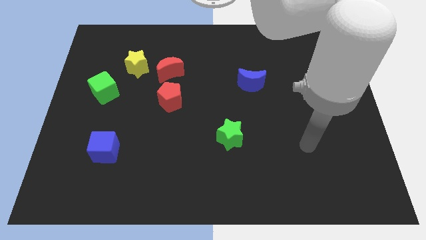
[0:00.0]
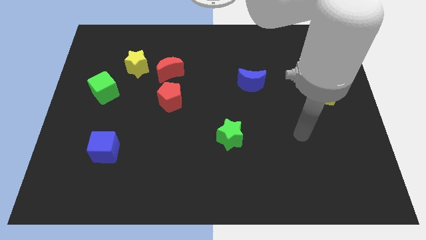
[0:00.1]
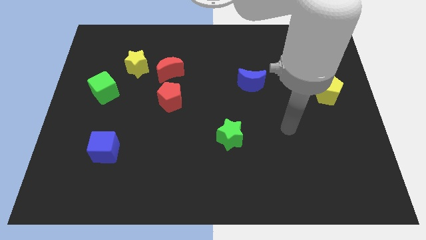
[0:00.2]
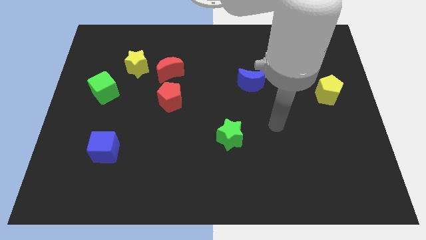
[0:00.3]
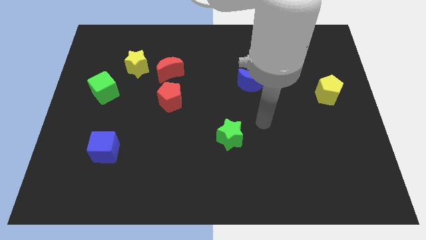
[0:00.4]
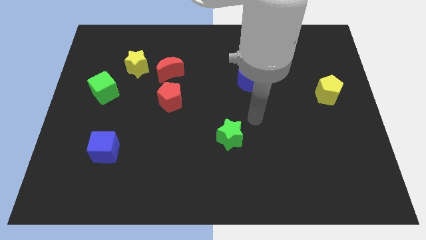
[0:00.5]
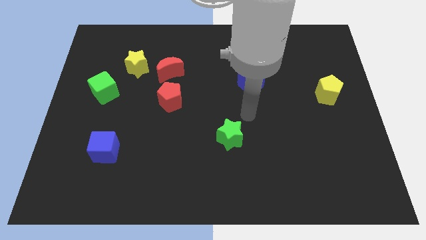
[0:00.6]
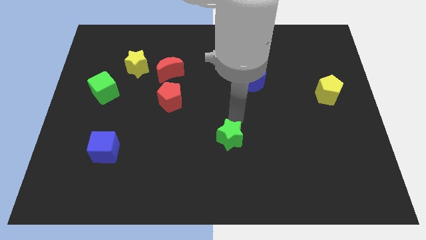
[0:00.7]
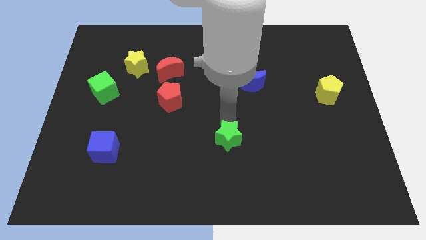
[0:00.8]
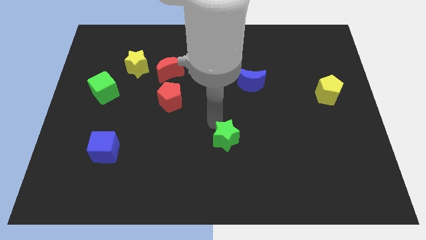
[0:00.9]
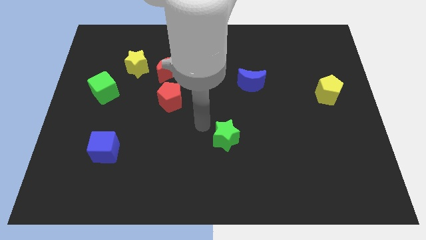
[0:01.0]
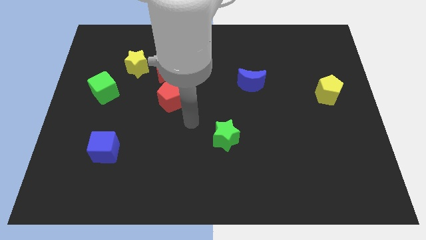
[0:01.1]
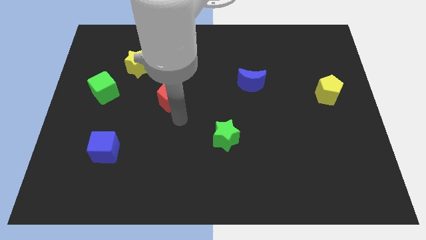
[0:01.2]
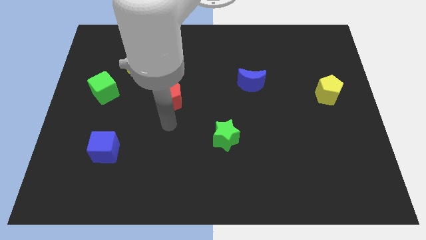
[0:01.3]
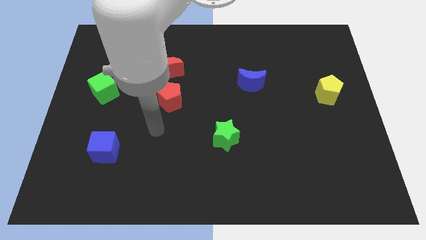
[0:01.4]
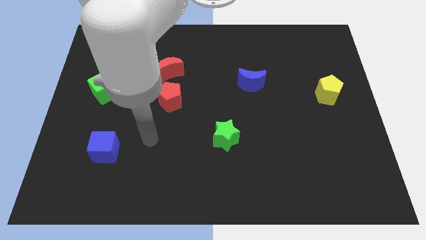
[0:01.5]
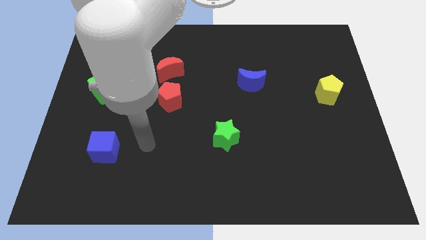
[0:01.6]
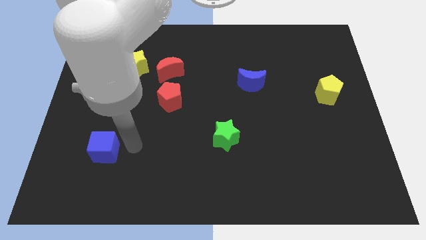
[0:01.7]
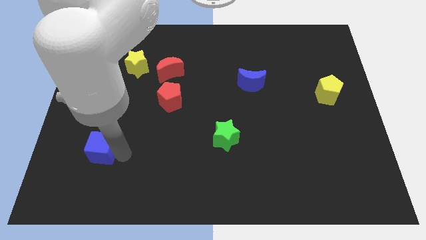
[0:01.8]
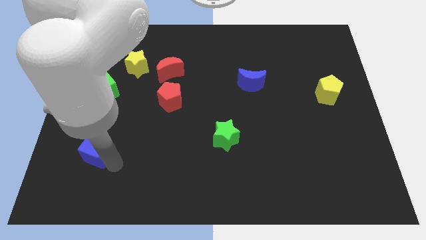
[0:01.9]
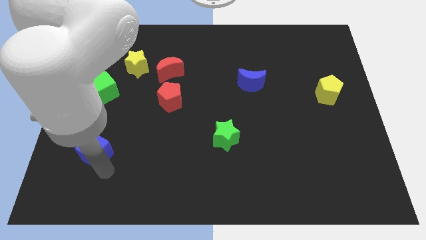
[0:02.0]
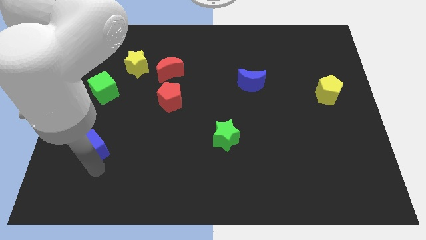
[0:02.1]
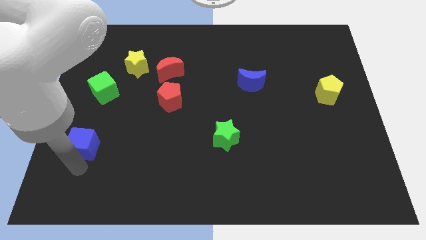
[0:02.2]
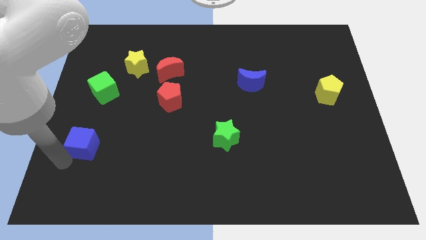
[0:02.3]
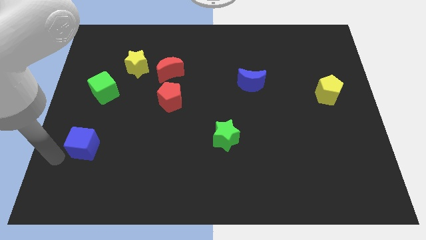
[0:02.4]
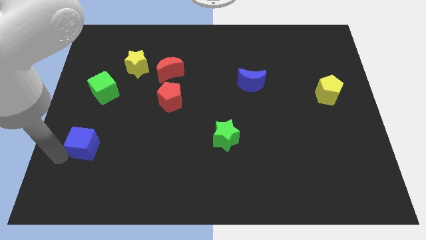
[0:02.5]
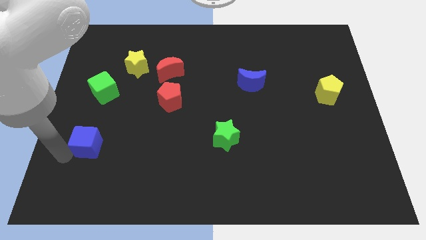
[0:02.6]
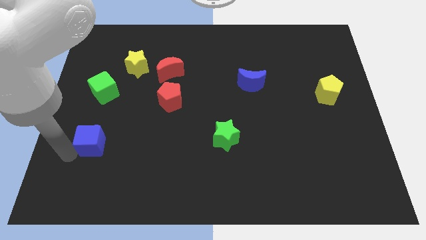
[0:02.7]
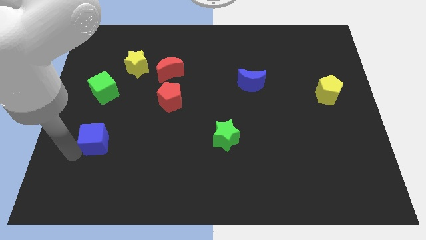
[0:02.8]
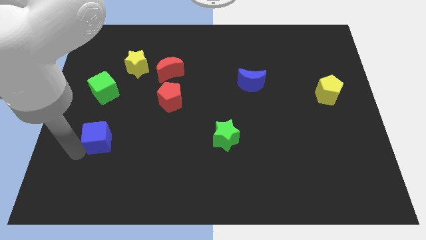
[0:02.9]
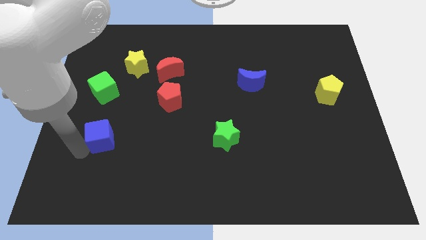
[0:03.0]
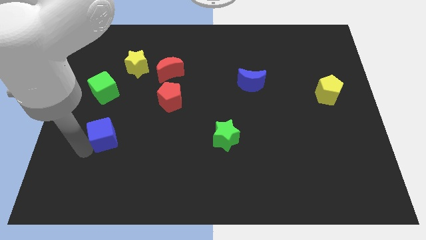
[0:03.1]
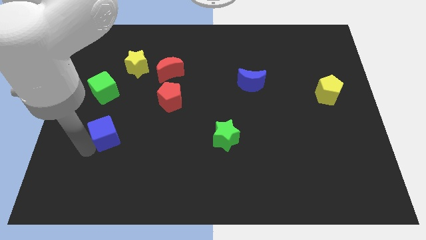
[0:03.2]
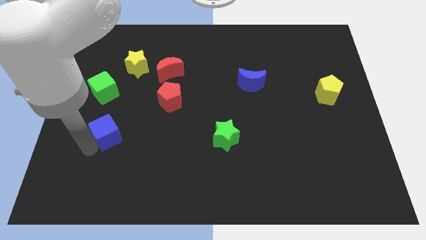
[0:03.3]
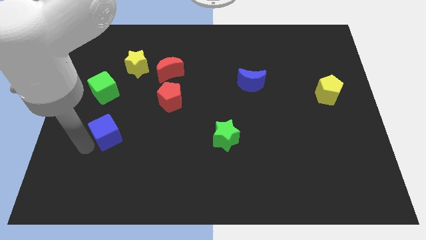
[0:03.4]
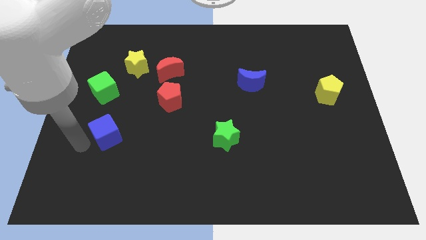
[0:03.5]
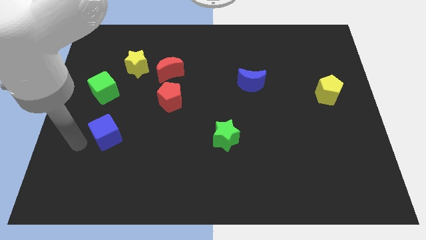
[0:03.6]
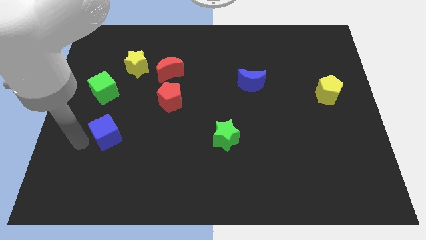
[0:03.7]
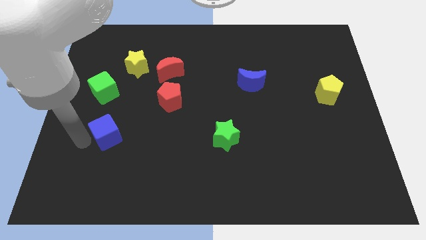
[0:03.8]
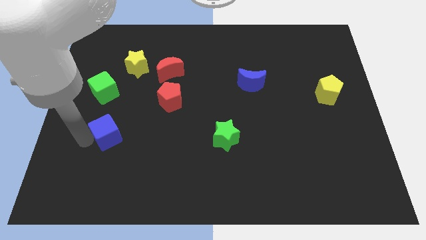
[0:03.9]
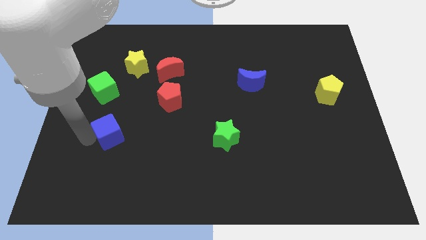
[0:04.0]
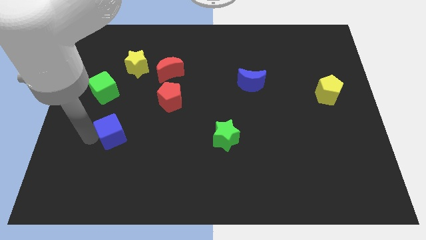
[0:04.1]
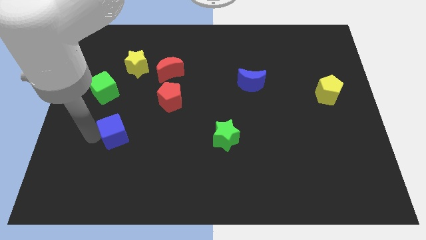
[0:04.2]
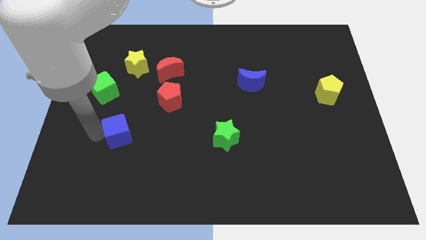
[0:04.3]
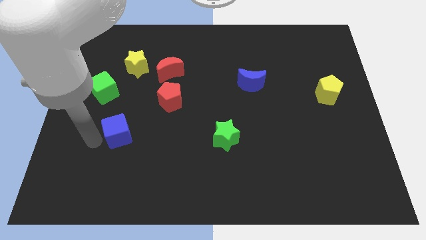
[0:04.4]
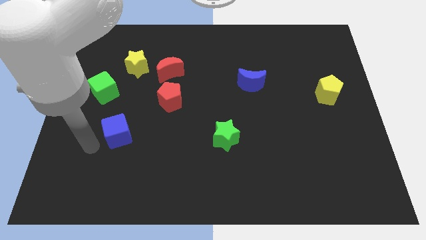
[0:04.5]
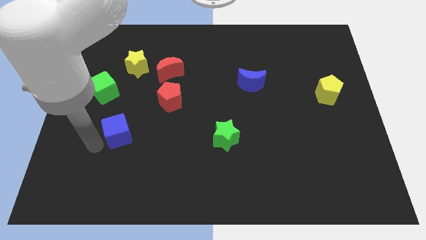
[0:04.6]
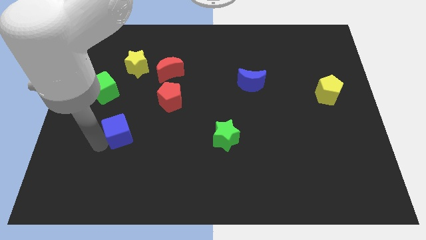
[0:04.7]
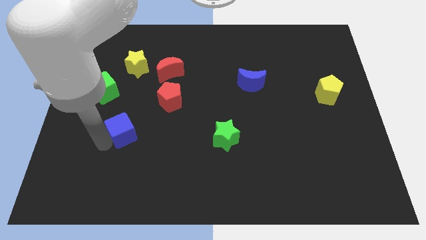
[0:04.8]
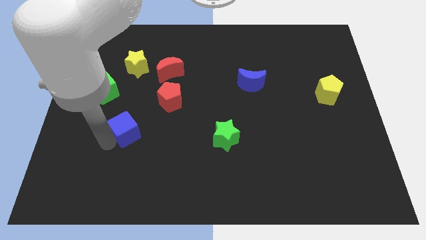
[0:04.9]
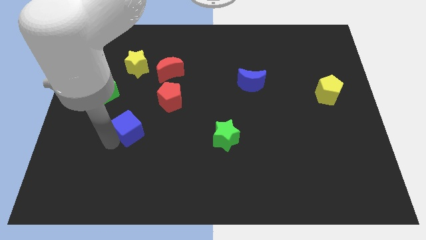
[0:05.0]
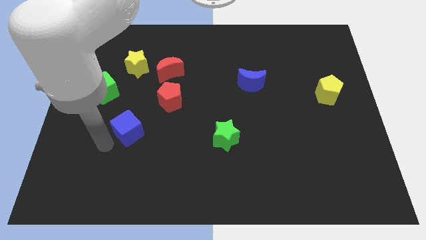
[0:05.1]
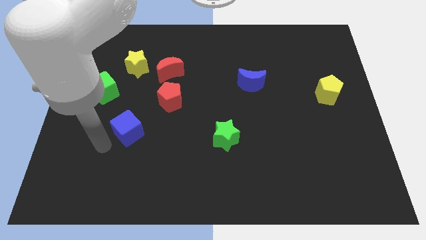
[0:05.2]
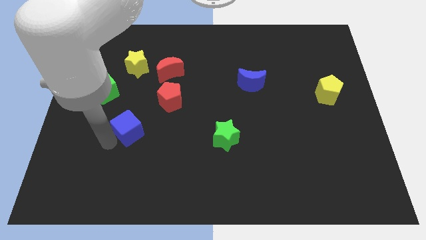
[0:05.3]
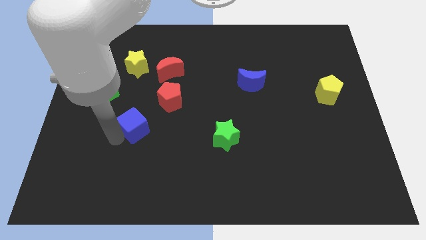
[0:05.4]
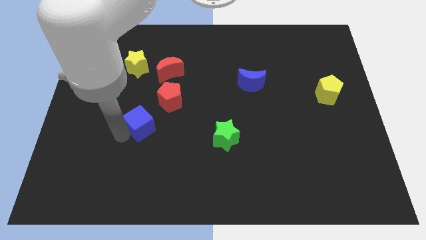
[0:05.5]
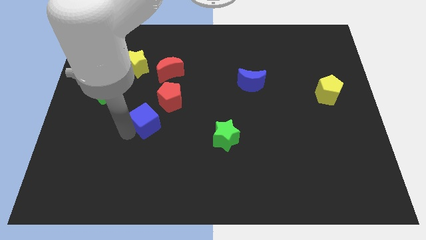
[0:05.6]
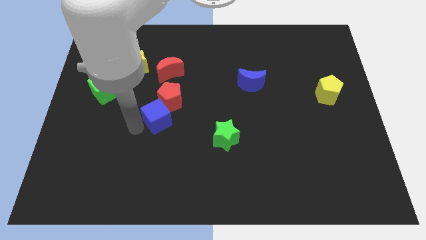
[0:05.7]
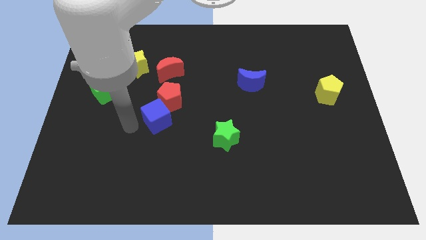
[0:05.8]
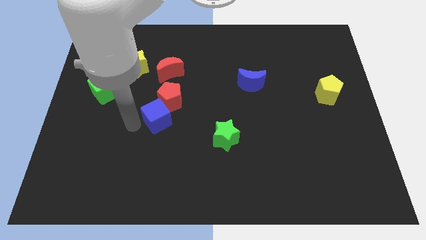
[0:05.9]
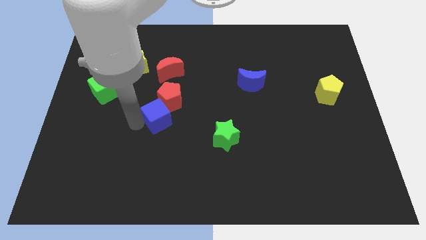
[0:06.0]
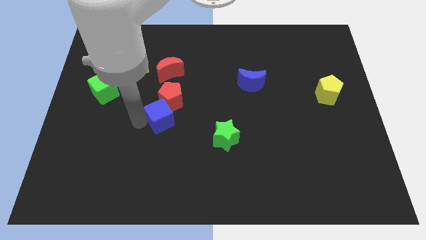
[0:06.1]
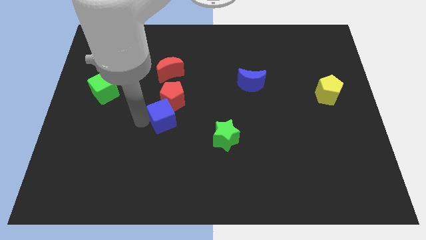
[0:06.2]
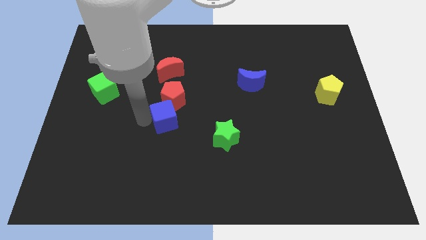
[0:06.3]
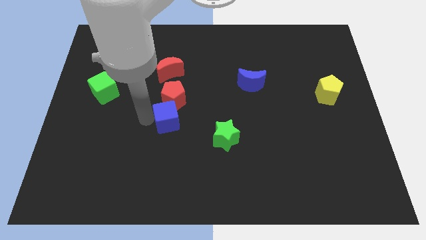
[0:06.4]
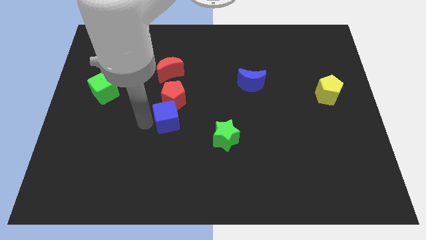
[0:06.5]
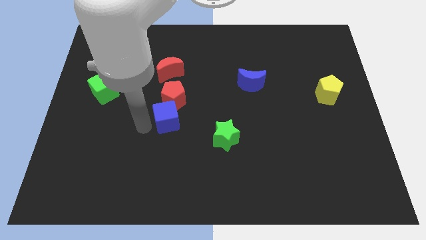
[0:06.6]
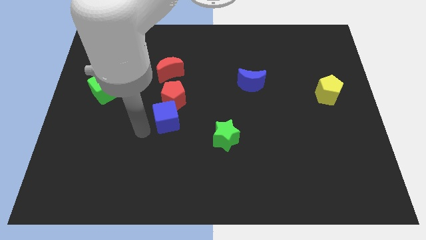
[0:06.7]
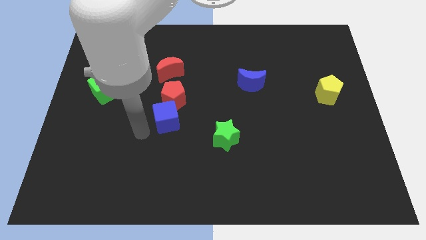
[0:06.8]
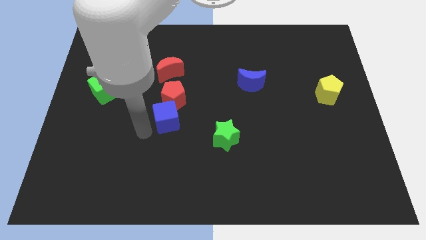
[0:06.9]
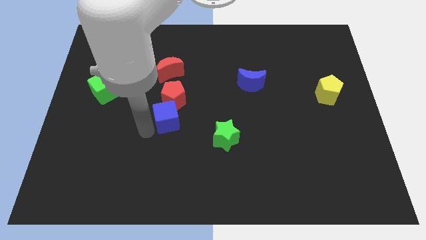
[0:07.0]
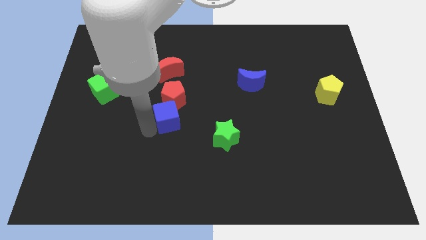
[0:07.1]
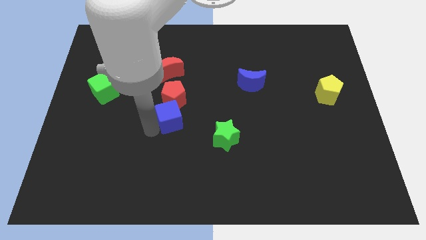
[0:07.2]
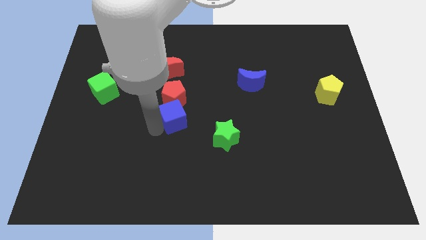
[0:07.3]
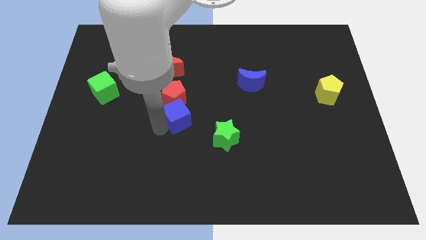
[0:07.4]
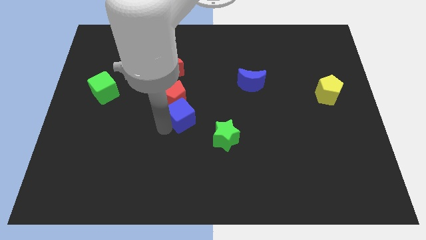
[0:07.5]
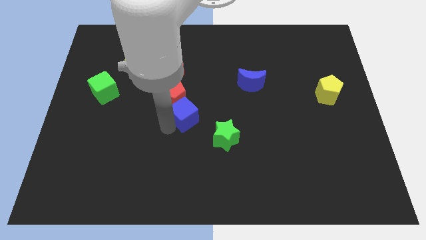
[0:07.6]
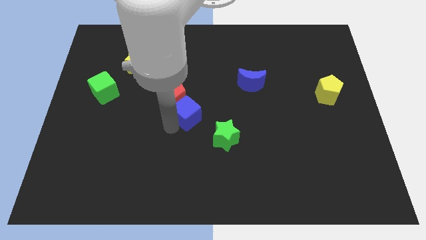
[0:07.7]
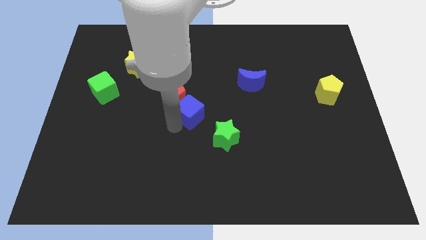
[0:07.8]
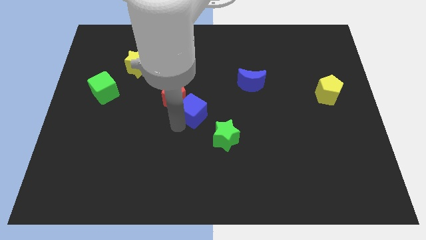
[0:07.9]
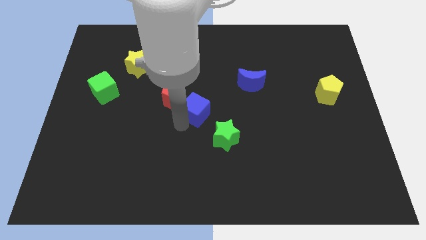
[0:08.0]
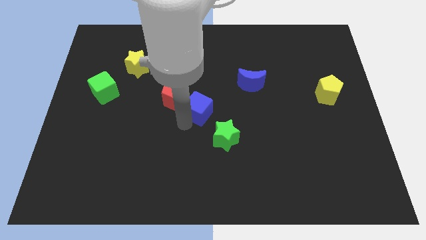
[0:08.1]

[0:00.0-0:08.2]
move the blue cube upwards and then right

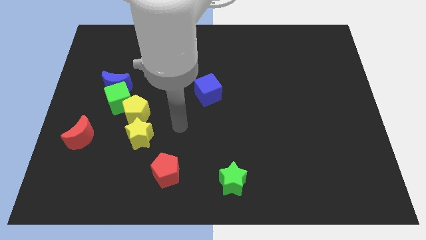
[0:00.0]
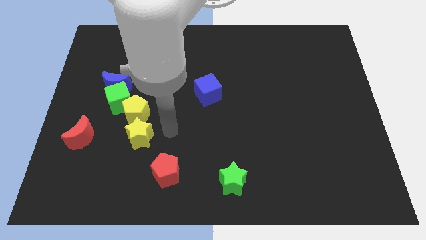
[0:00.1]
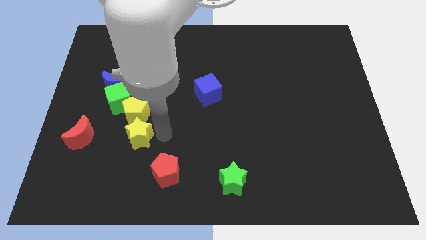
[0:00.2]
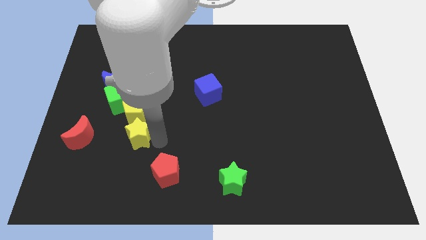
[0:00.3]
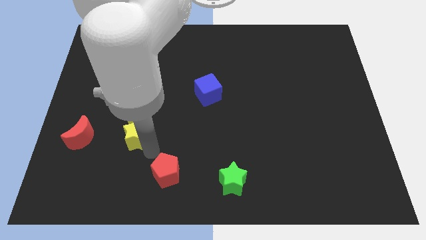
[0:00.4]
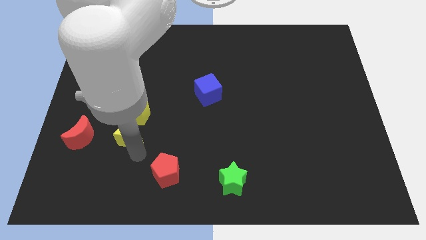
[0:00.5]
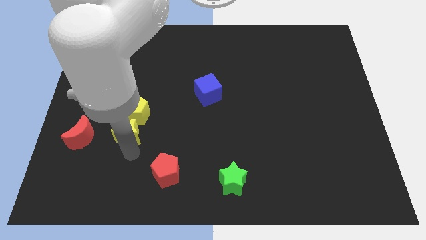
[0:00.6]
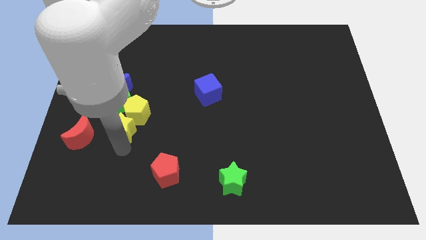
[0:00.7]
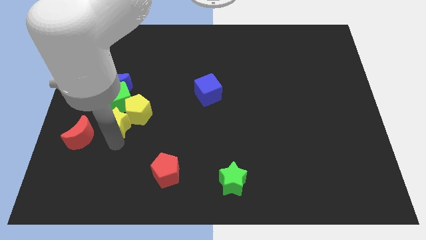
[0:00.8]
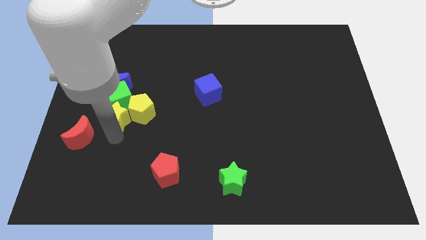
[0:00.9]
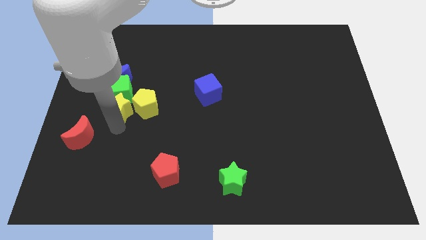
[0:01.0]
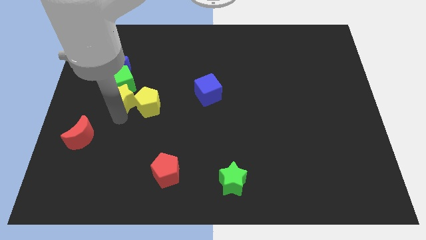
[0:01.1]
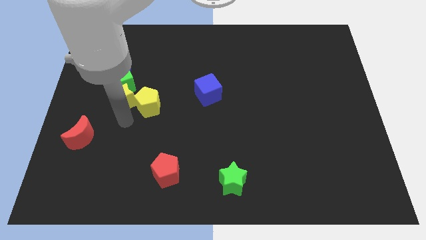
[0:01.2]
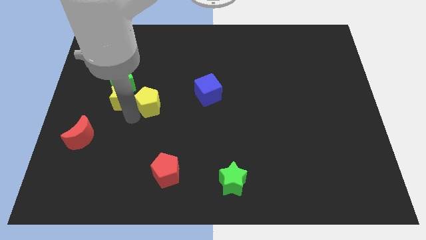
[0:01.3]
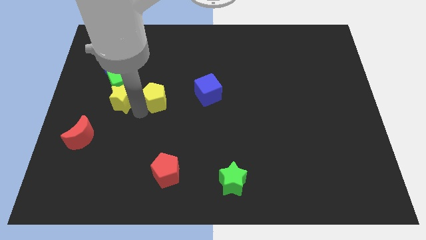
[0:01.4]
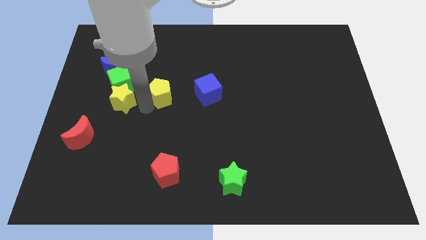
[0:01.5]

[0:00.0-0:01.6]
slide the yellow pentagon somewhat upwards and right
